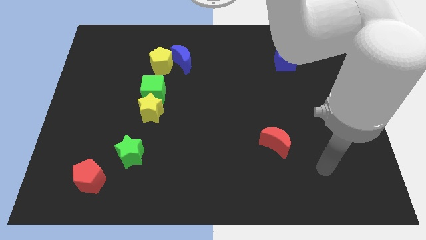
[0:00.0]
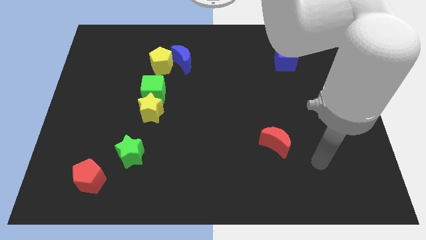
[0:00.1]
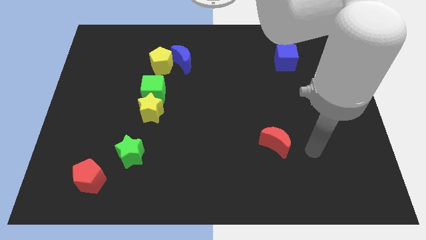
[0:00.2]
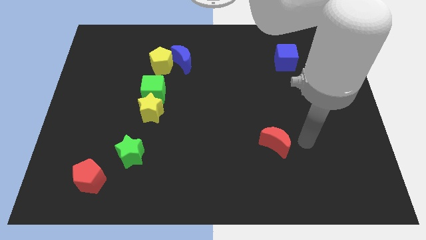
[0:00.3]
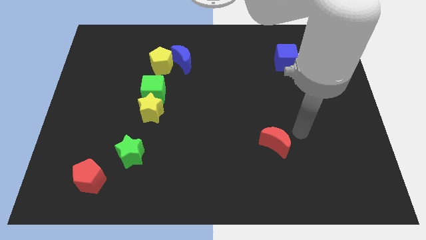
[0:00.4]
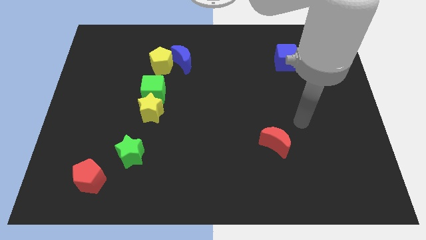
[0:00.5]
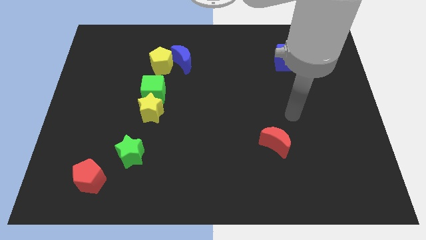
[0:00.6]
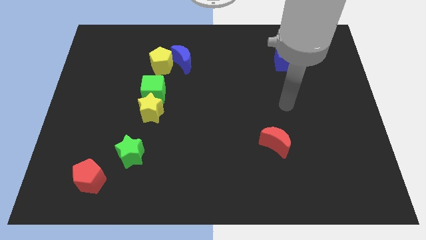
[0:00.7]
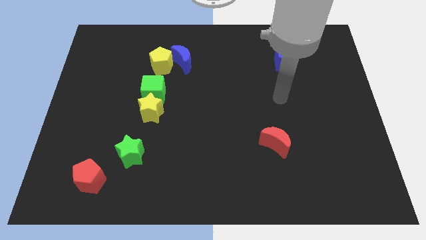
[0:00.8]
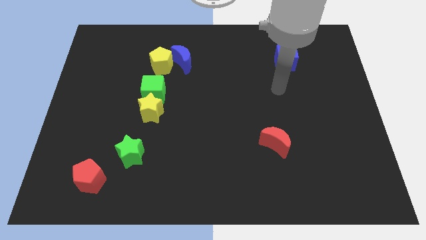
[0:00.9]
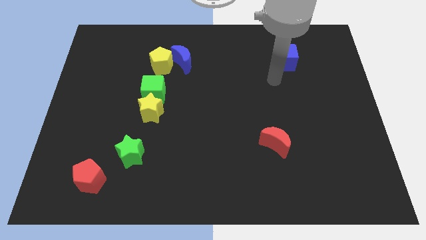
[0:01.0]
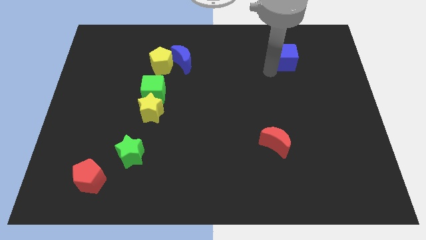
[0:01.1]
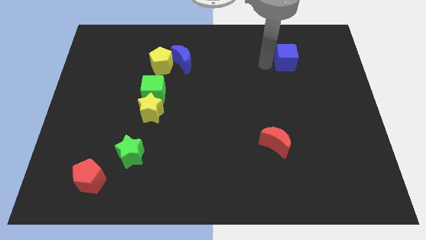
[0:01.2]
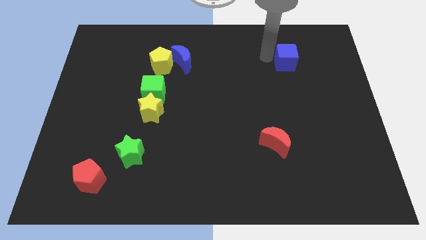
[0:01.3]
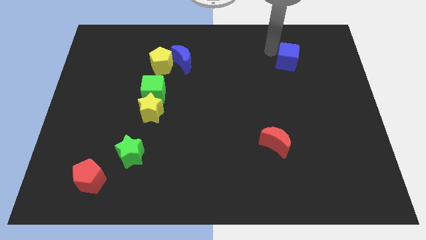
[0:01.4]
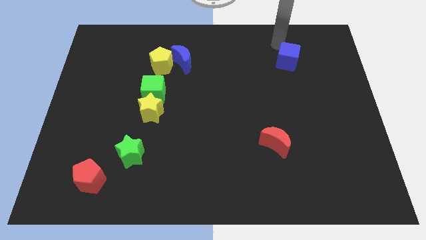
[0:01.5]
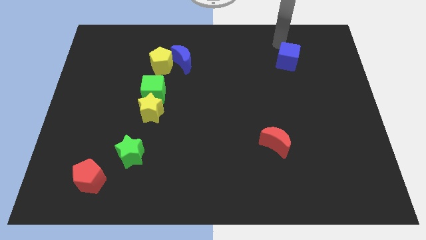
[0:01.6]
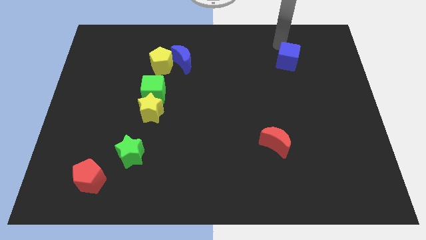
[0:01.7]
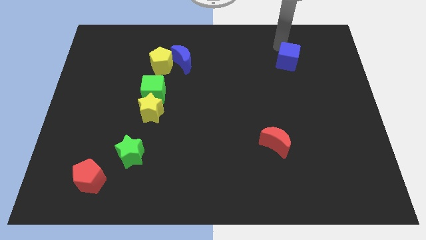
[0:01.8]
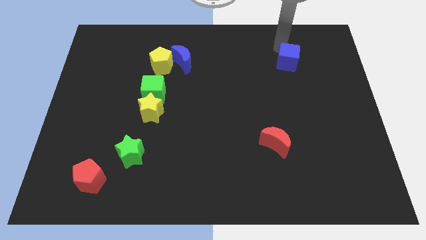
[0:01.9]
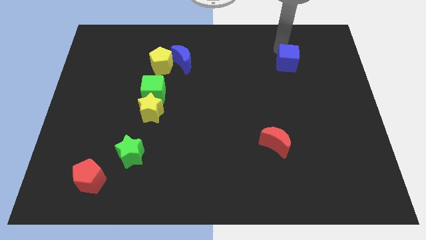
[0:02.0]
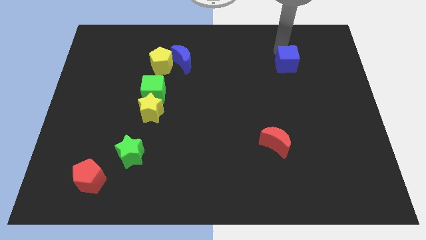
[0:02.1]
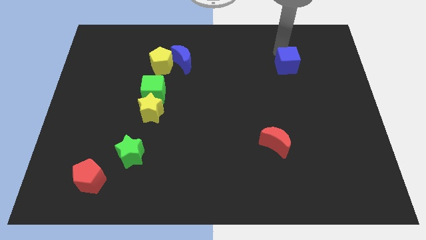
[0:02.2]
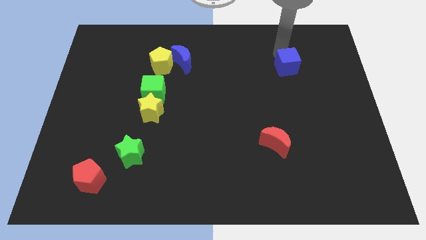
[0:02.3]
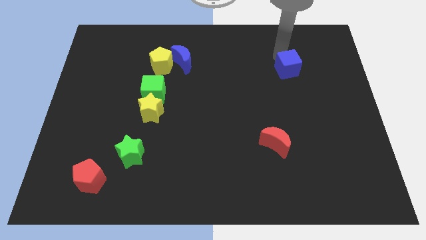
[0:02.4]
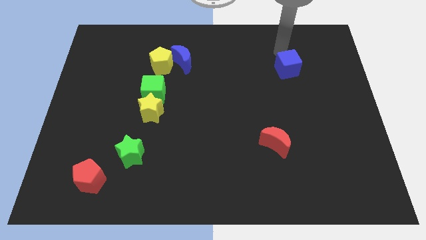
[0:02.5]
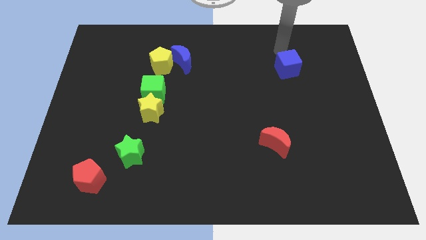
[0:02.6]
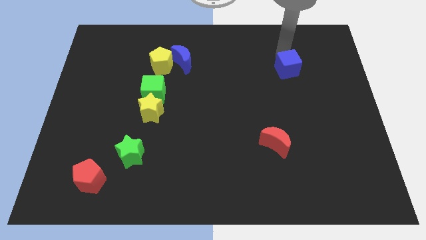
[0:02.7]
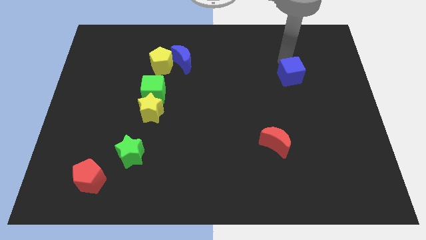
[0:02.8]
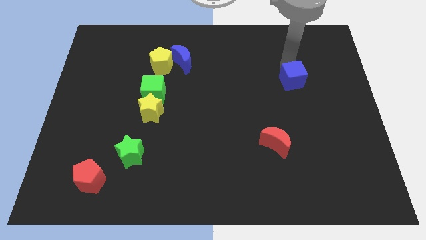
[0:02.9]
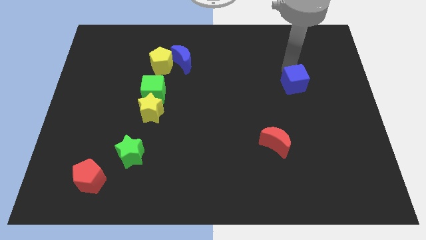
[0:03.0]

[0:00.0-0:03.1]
slide the blue cube downwards slightly

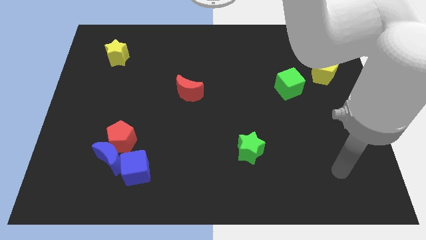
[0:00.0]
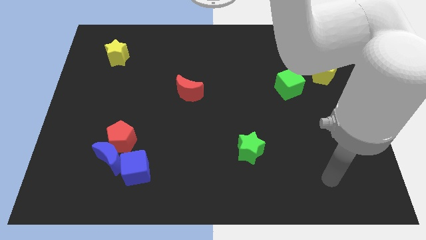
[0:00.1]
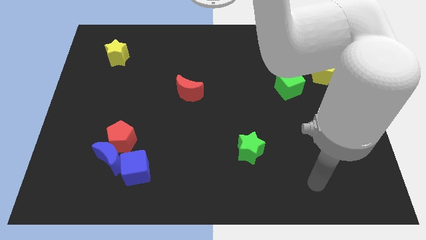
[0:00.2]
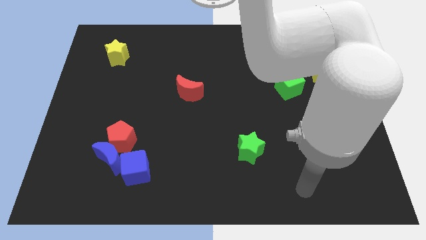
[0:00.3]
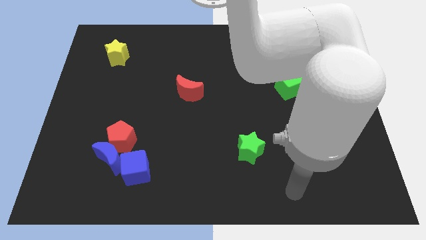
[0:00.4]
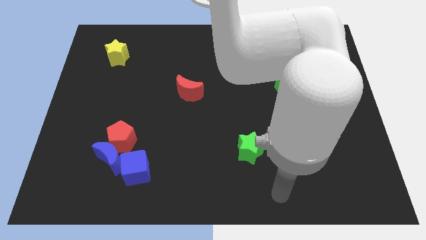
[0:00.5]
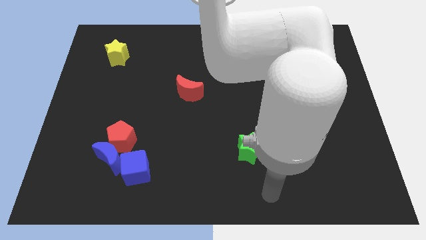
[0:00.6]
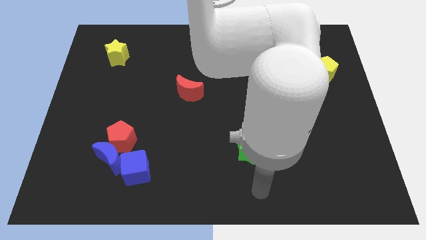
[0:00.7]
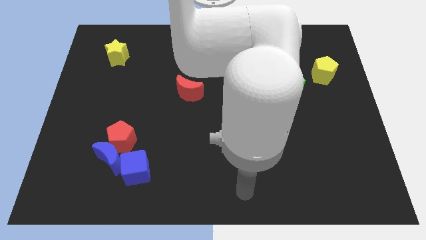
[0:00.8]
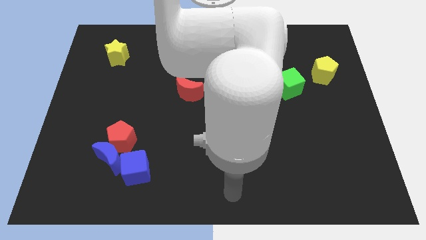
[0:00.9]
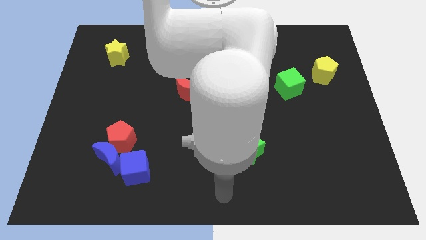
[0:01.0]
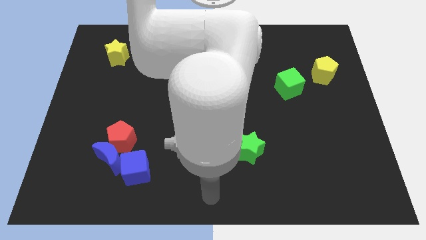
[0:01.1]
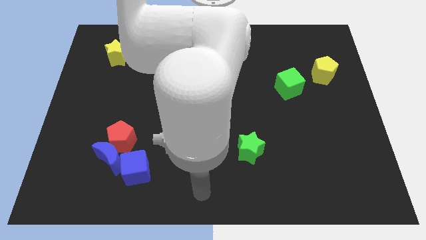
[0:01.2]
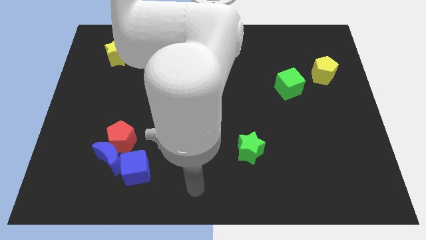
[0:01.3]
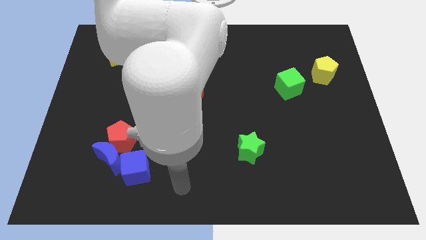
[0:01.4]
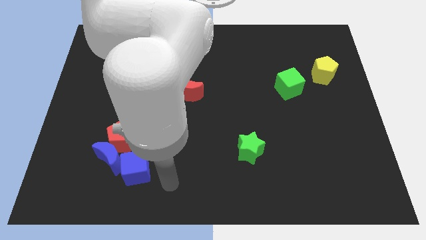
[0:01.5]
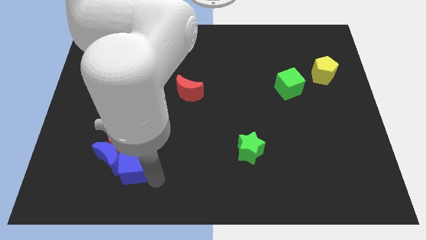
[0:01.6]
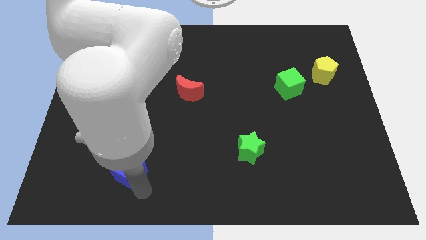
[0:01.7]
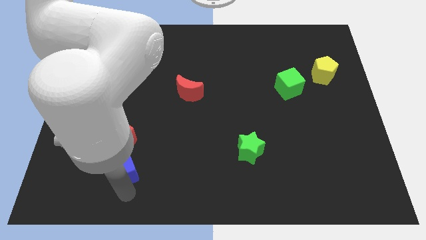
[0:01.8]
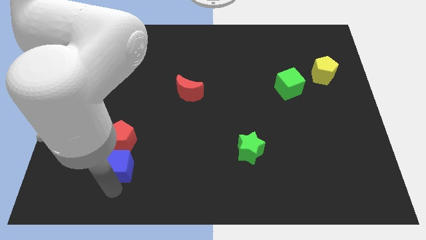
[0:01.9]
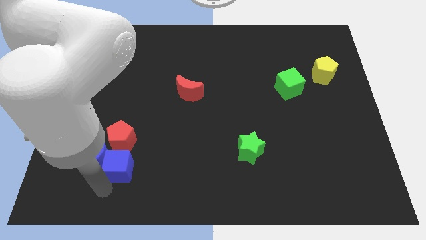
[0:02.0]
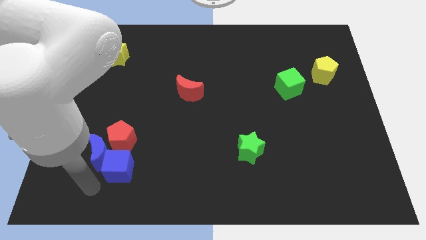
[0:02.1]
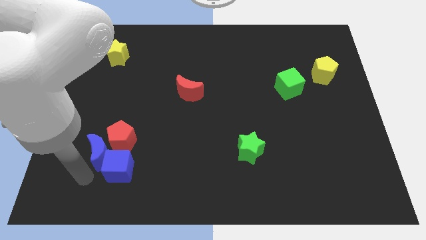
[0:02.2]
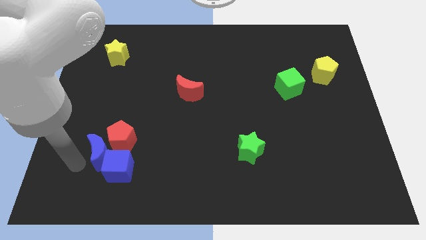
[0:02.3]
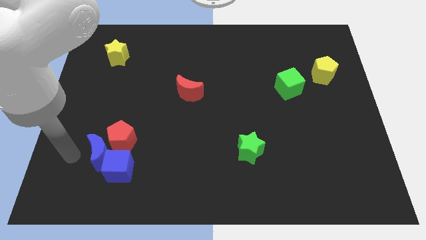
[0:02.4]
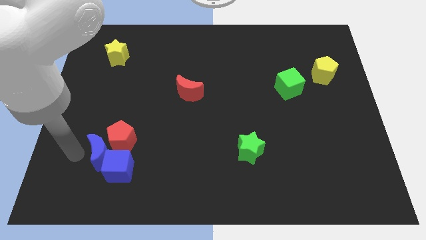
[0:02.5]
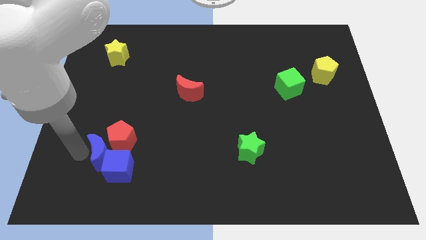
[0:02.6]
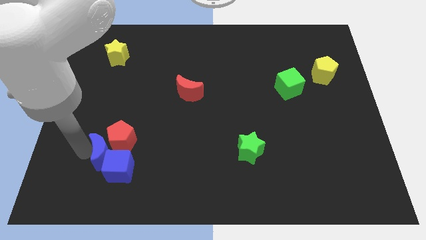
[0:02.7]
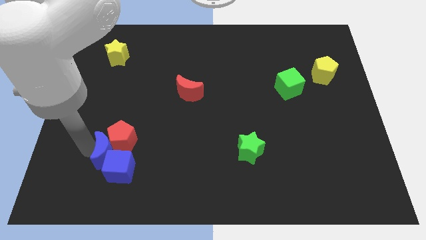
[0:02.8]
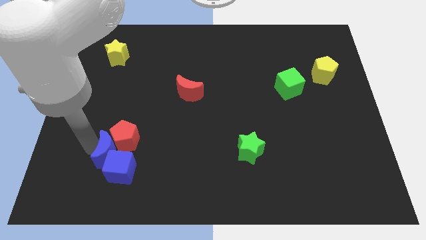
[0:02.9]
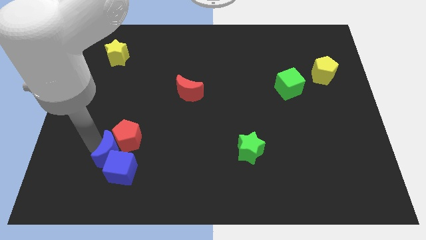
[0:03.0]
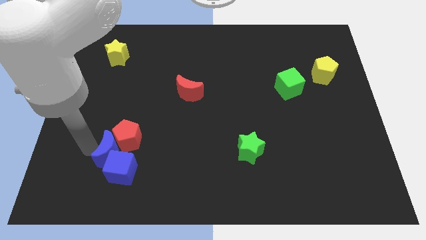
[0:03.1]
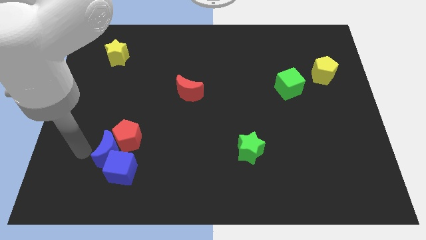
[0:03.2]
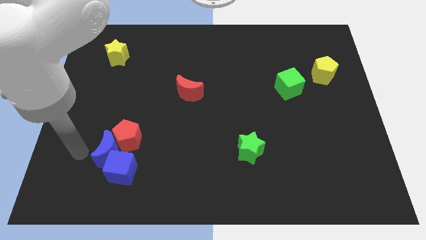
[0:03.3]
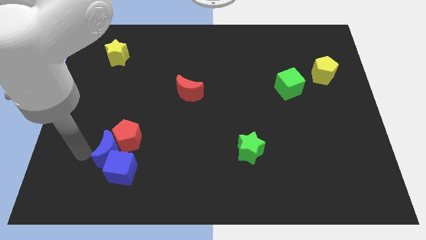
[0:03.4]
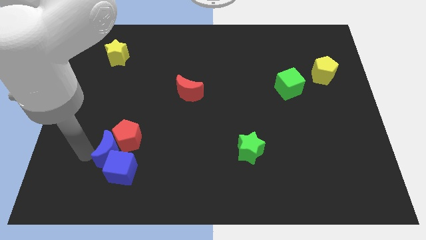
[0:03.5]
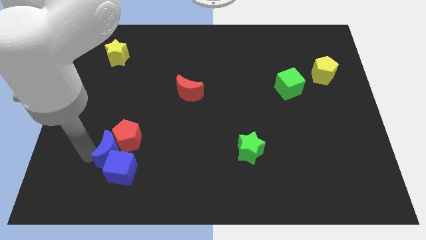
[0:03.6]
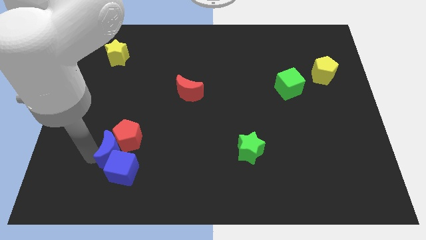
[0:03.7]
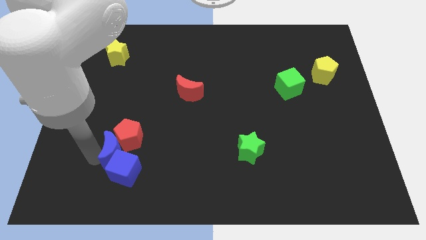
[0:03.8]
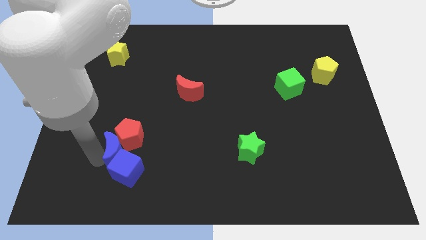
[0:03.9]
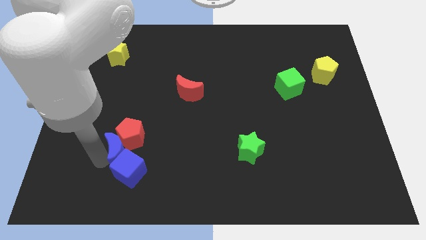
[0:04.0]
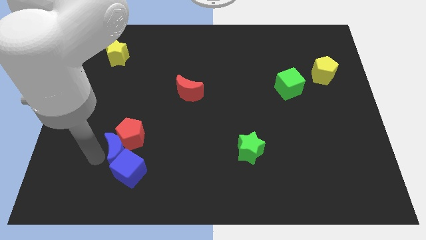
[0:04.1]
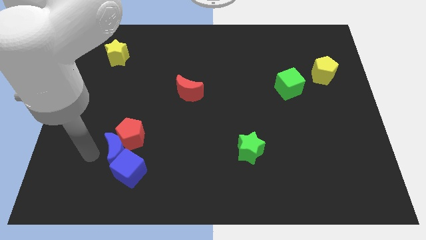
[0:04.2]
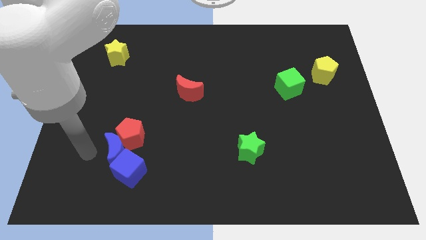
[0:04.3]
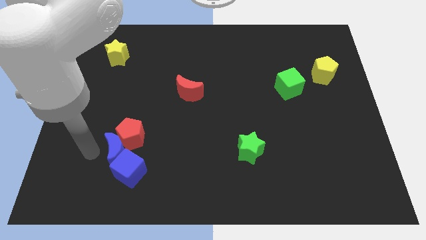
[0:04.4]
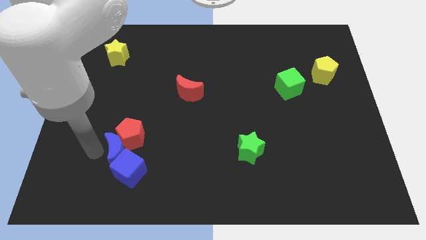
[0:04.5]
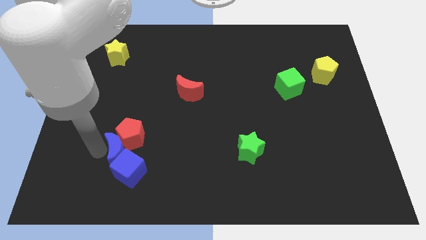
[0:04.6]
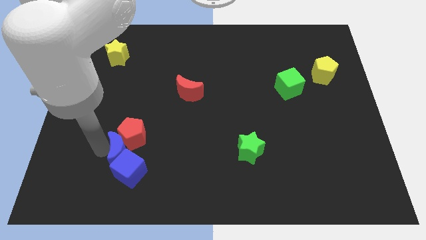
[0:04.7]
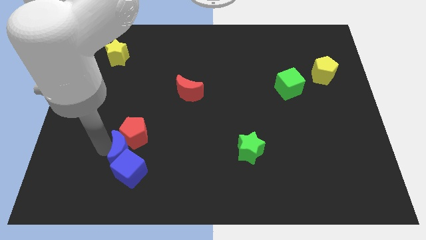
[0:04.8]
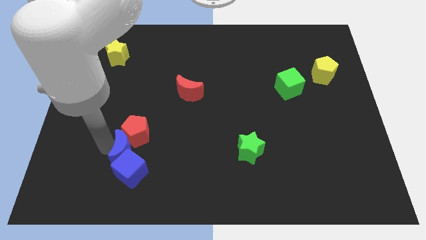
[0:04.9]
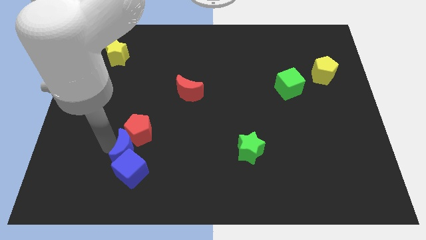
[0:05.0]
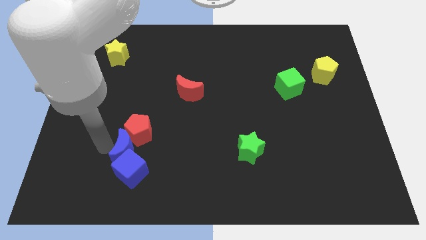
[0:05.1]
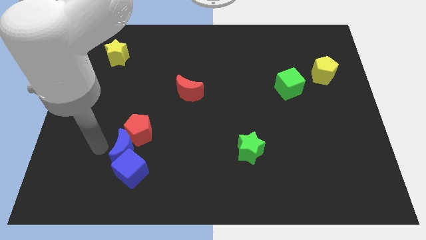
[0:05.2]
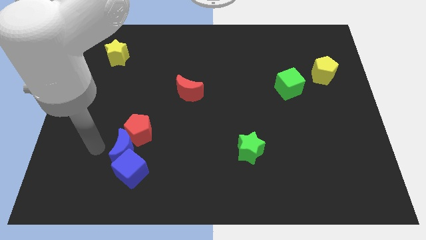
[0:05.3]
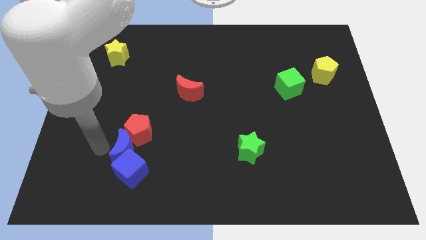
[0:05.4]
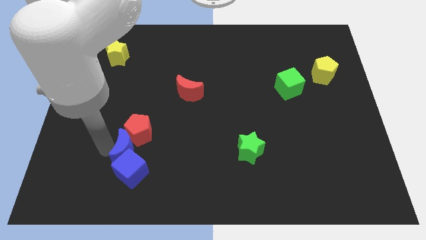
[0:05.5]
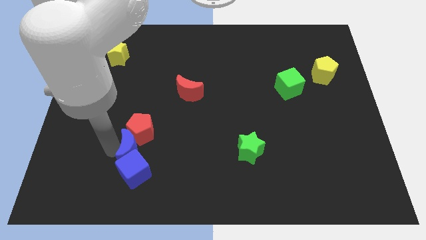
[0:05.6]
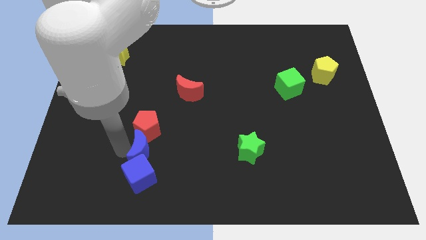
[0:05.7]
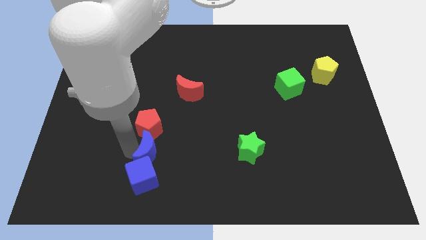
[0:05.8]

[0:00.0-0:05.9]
slightly push the blue moon right
